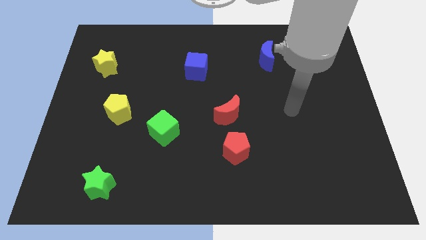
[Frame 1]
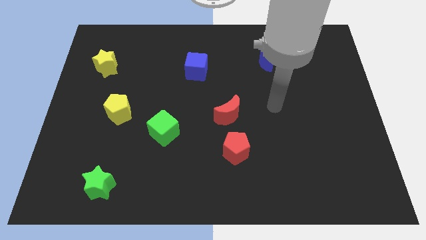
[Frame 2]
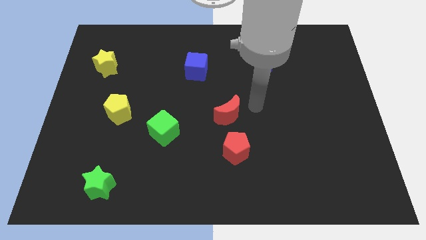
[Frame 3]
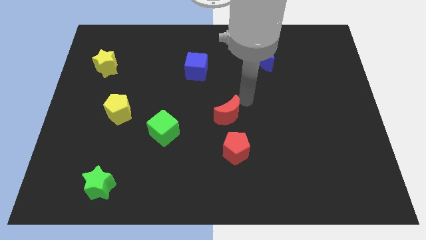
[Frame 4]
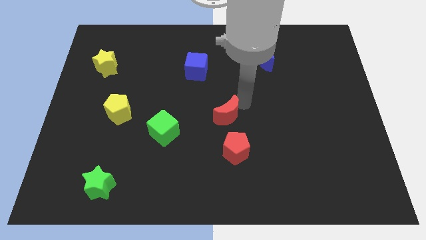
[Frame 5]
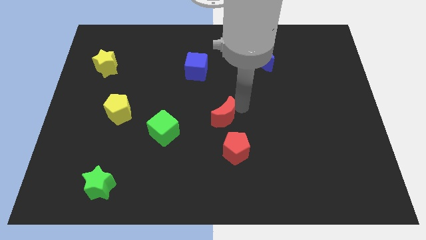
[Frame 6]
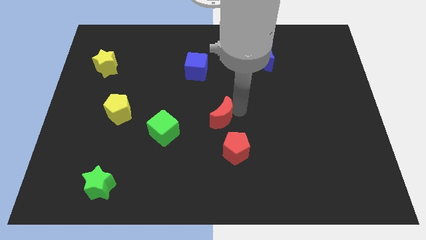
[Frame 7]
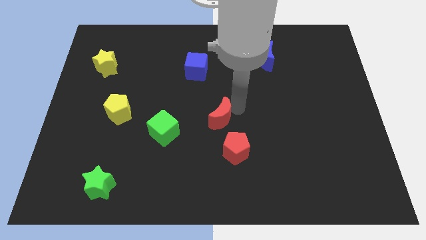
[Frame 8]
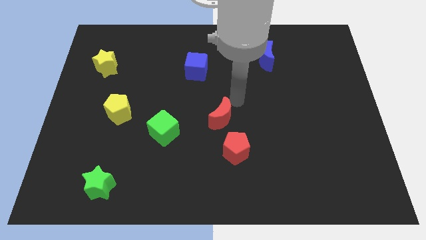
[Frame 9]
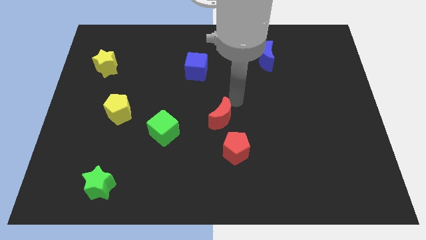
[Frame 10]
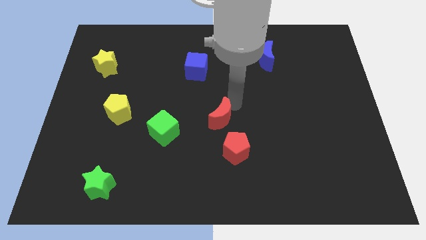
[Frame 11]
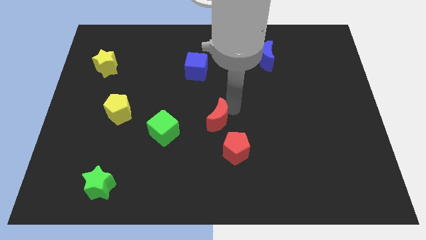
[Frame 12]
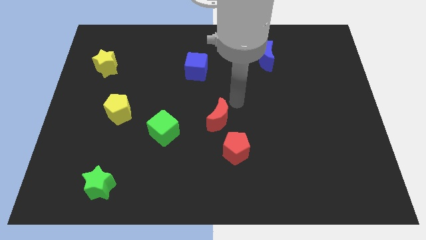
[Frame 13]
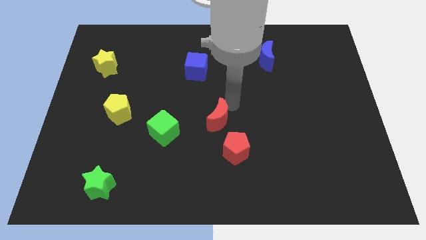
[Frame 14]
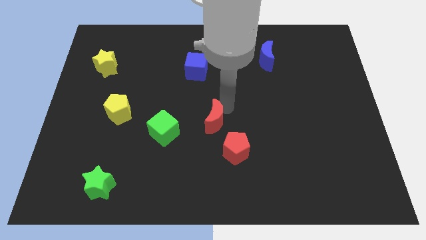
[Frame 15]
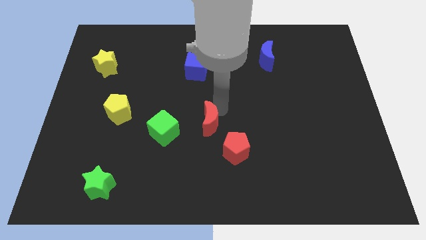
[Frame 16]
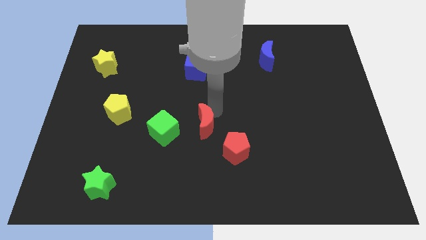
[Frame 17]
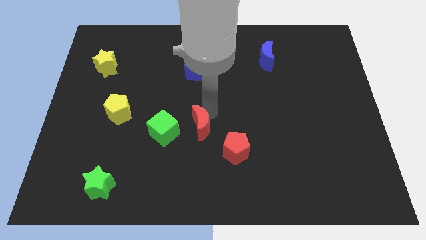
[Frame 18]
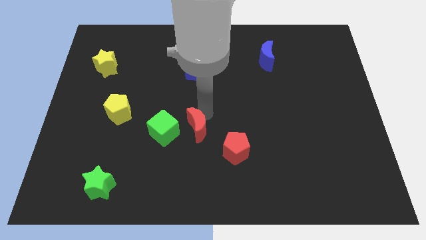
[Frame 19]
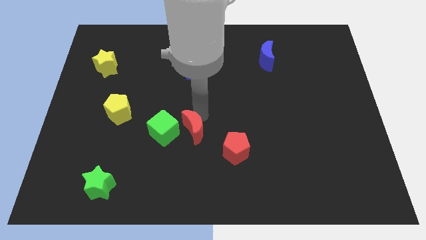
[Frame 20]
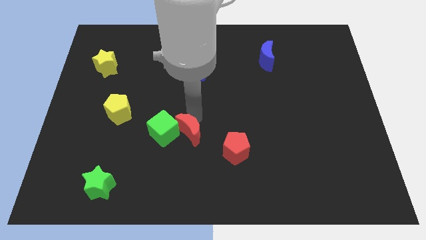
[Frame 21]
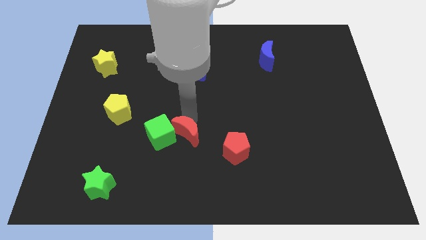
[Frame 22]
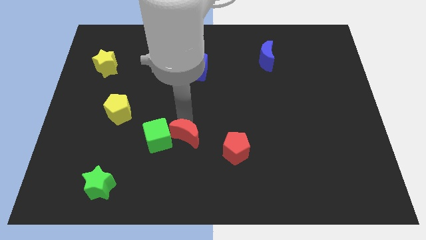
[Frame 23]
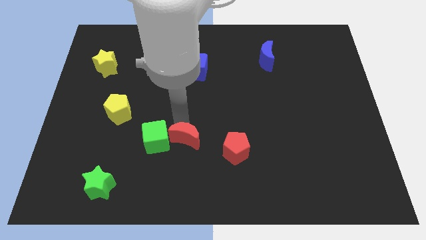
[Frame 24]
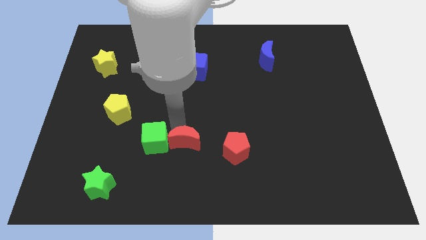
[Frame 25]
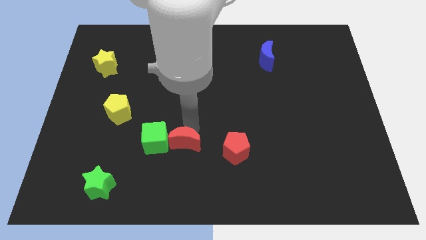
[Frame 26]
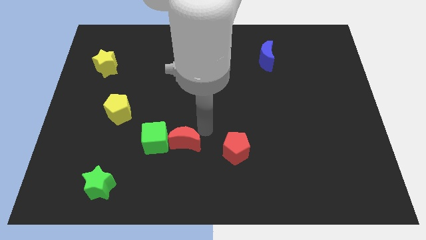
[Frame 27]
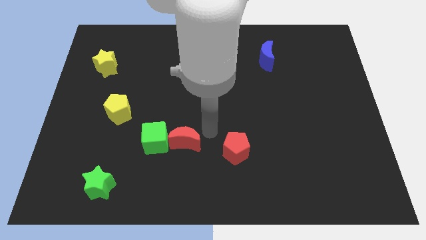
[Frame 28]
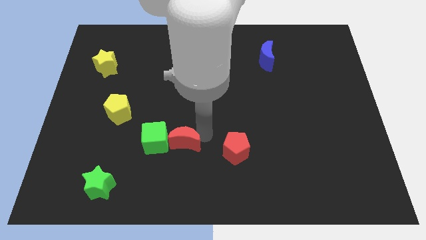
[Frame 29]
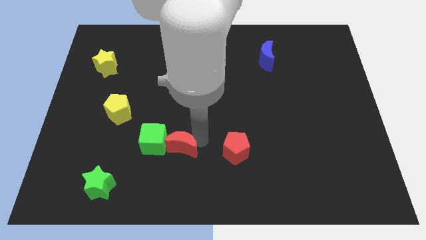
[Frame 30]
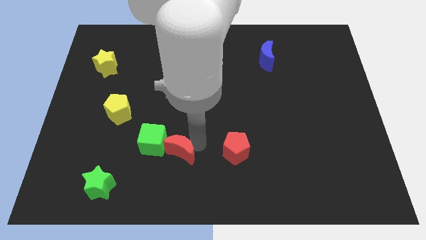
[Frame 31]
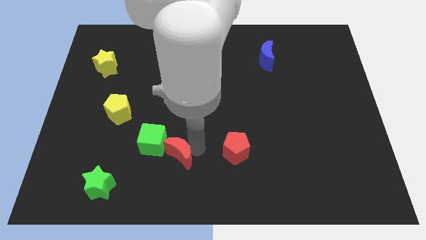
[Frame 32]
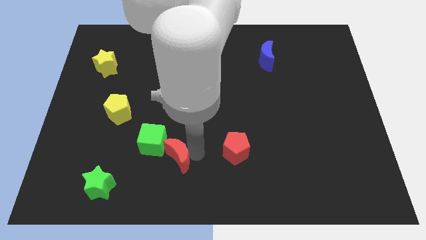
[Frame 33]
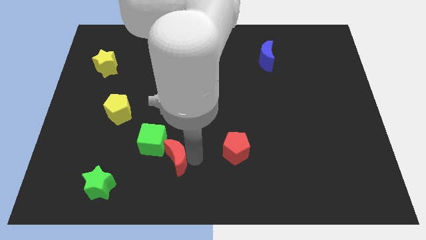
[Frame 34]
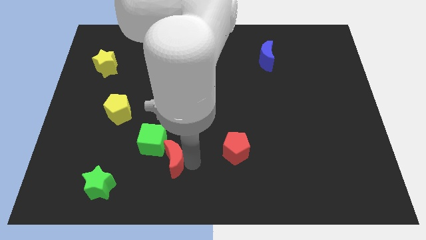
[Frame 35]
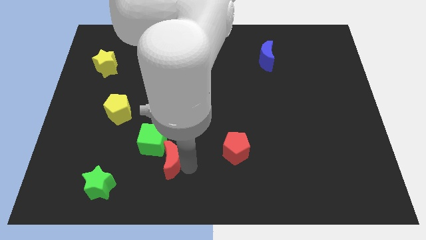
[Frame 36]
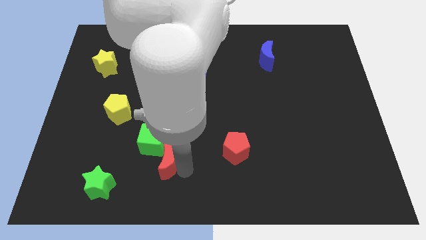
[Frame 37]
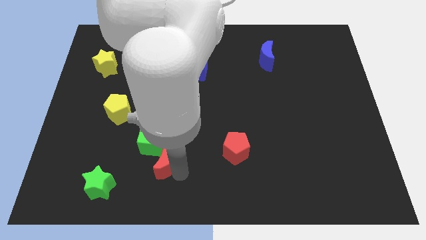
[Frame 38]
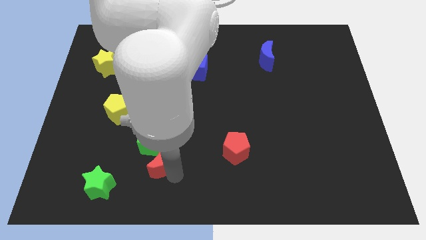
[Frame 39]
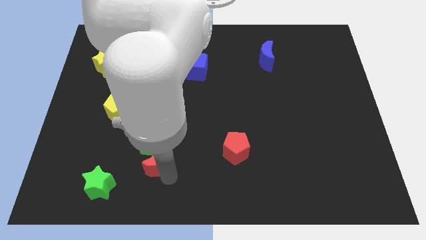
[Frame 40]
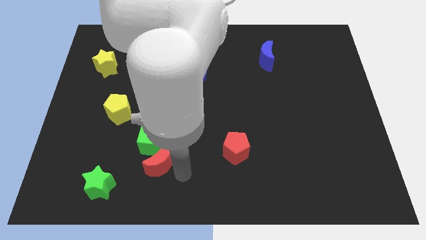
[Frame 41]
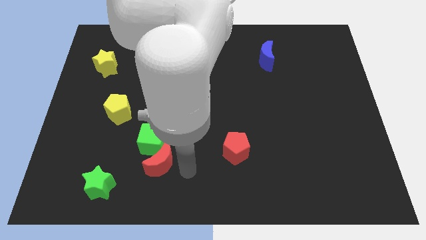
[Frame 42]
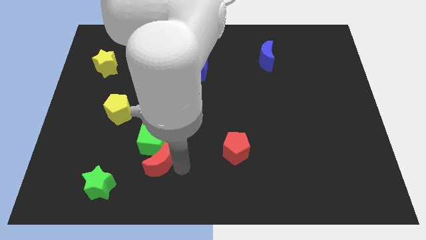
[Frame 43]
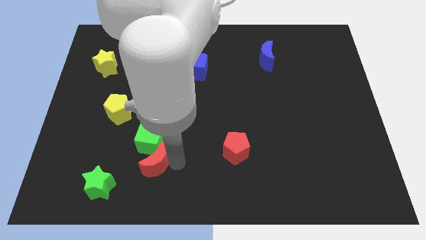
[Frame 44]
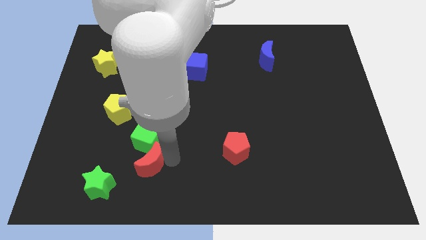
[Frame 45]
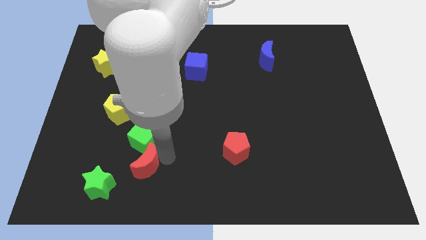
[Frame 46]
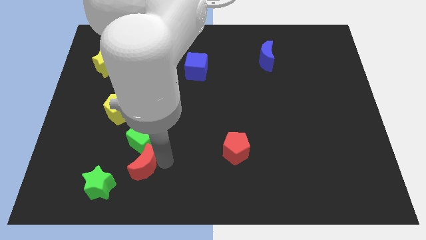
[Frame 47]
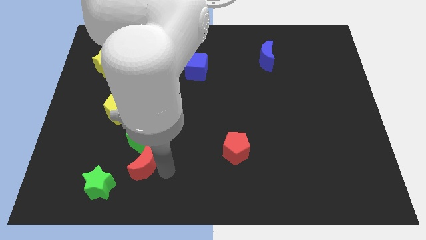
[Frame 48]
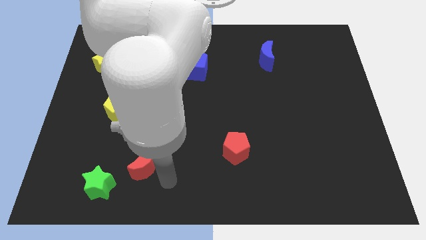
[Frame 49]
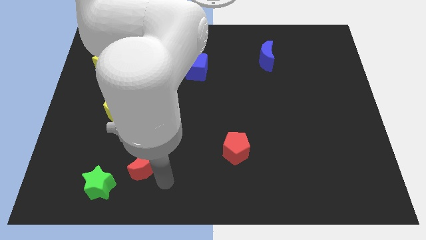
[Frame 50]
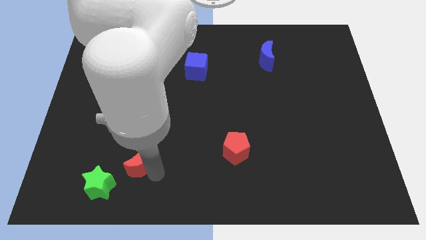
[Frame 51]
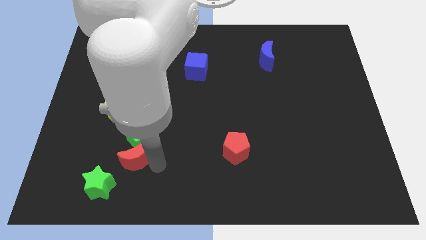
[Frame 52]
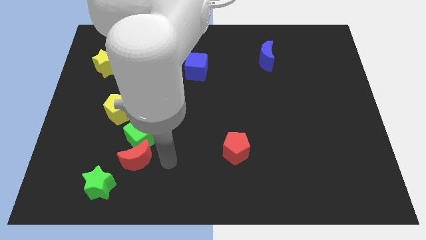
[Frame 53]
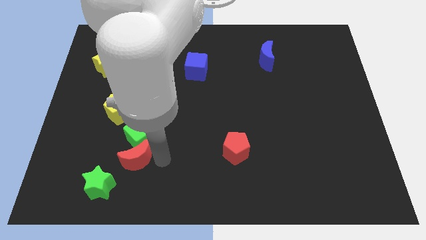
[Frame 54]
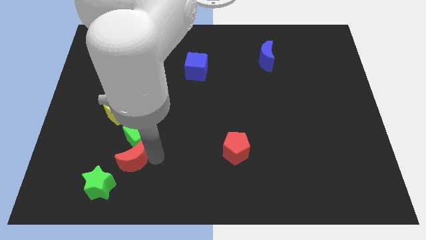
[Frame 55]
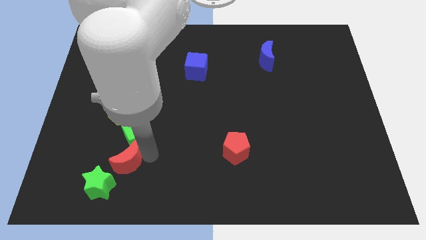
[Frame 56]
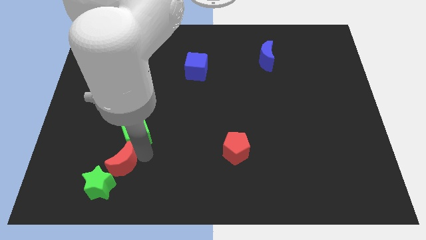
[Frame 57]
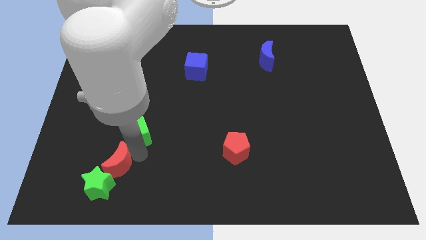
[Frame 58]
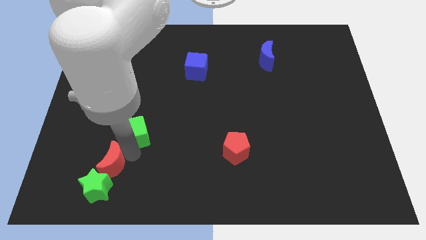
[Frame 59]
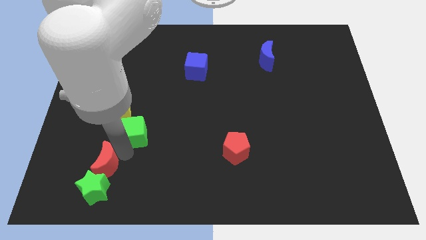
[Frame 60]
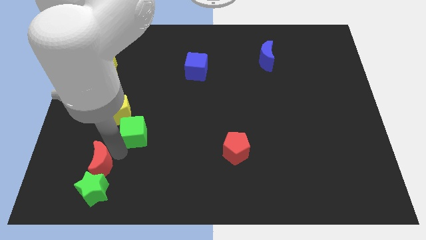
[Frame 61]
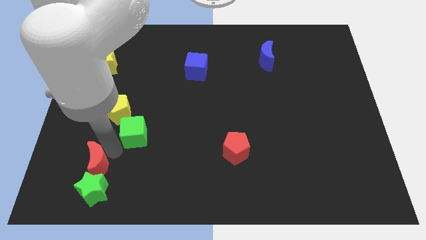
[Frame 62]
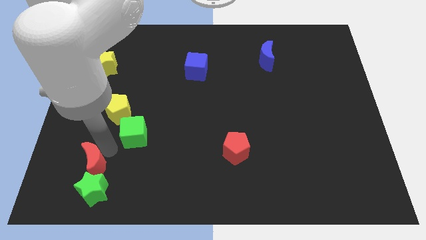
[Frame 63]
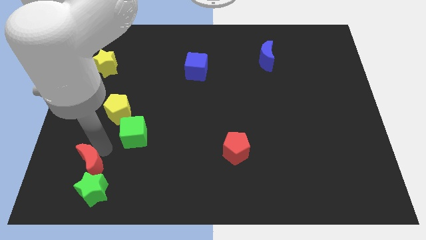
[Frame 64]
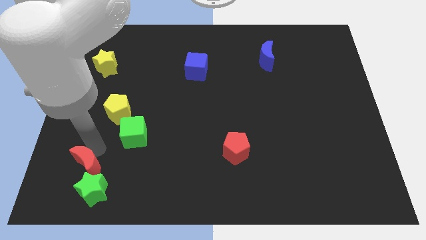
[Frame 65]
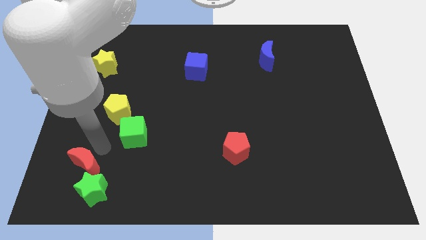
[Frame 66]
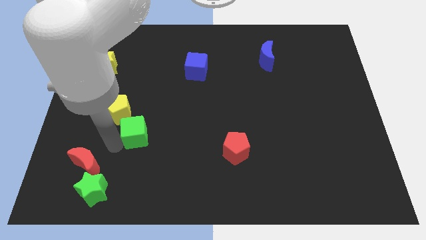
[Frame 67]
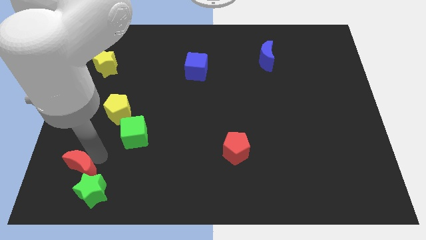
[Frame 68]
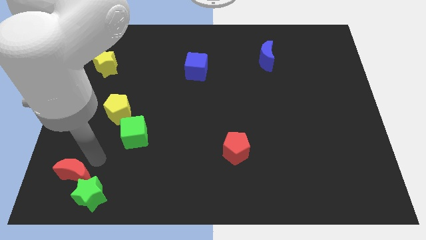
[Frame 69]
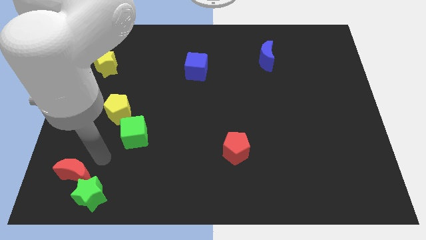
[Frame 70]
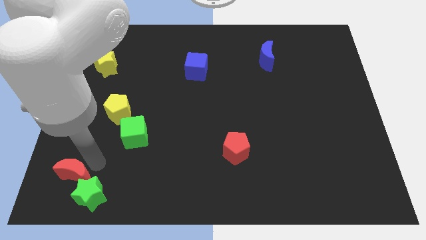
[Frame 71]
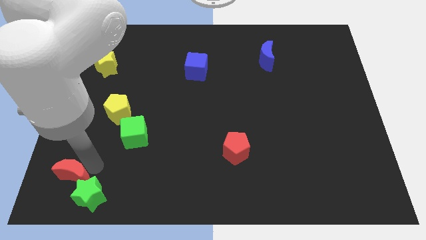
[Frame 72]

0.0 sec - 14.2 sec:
put the red moon to the bottom left corner
